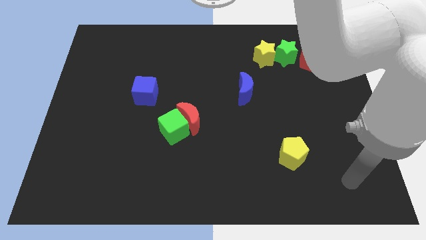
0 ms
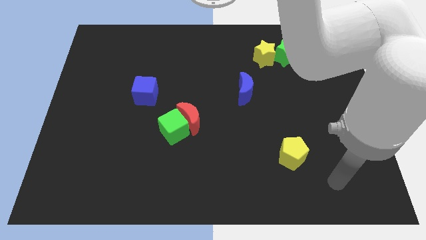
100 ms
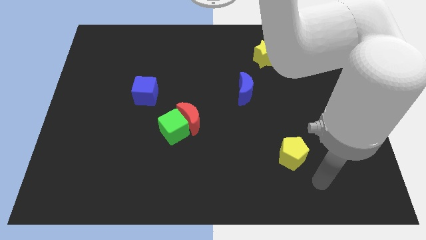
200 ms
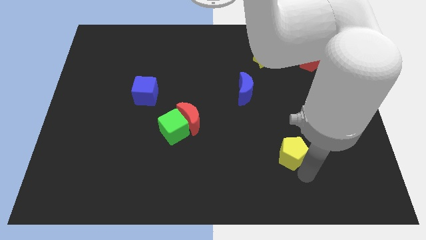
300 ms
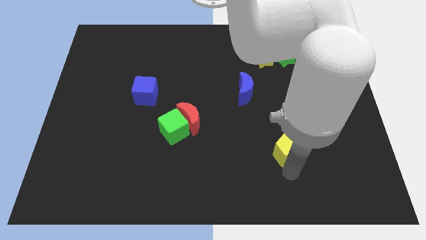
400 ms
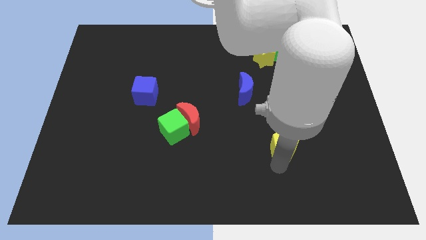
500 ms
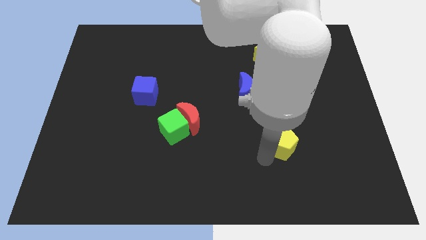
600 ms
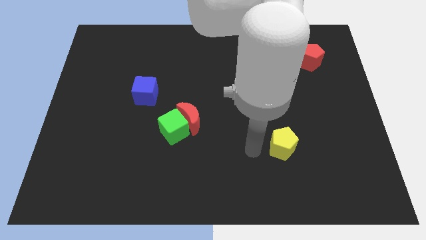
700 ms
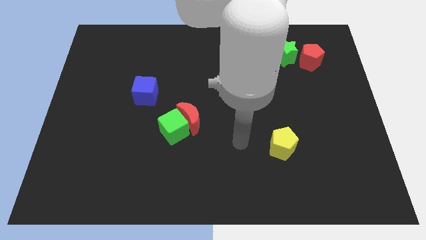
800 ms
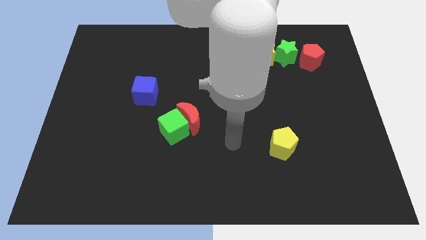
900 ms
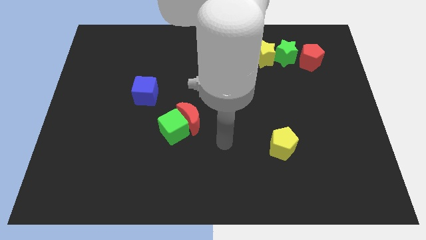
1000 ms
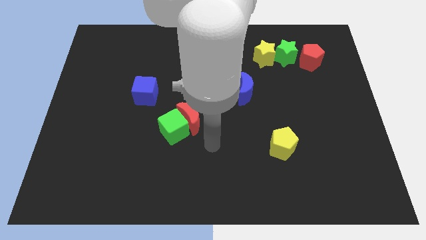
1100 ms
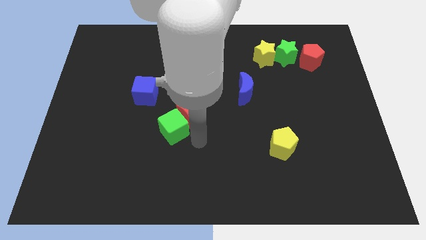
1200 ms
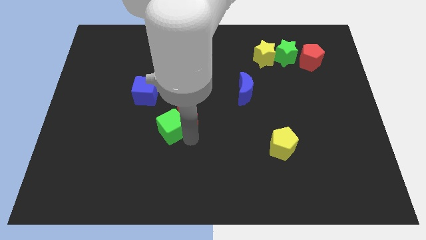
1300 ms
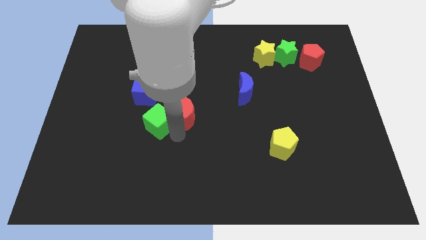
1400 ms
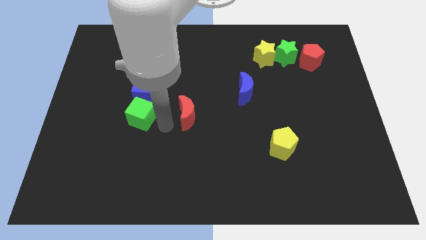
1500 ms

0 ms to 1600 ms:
separate the red moon from the green cube

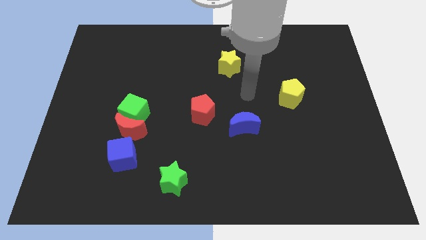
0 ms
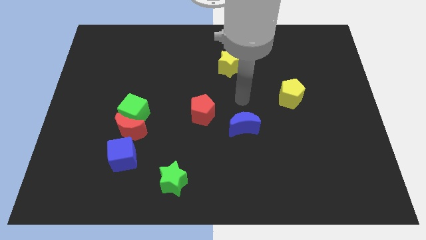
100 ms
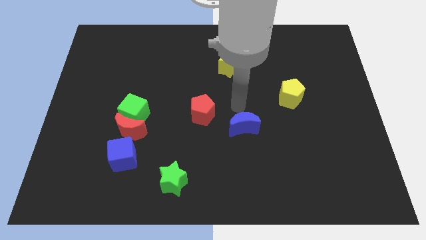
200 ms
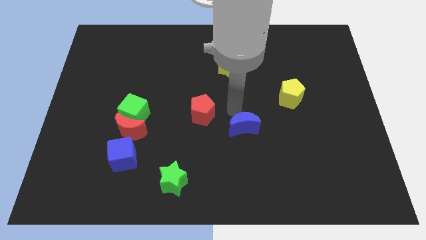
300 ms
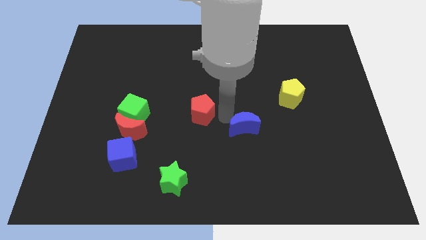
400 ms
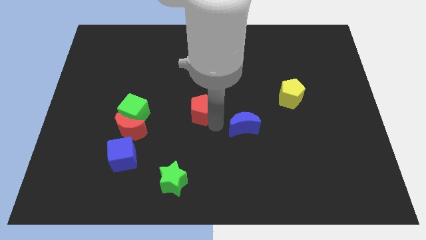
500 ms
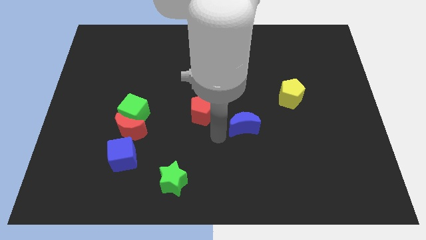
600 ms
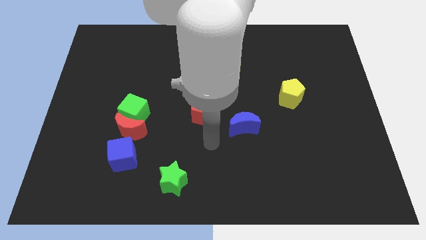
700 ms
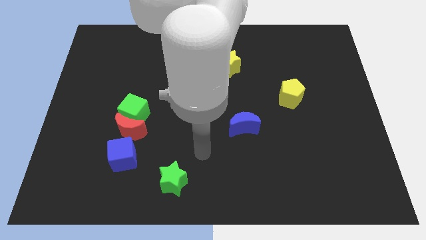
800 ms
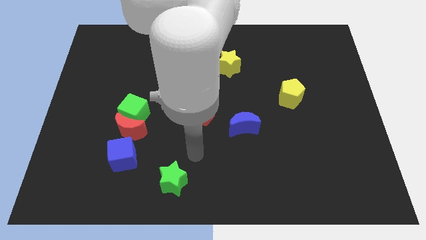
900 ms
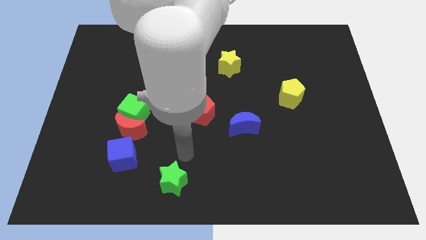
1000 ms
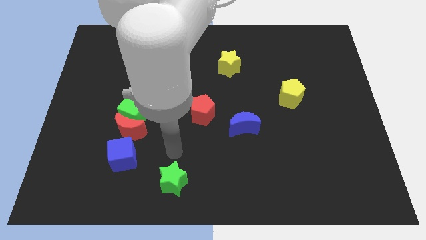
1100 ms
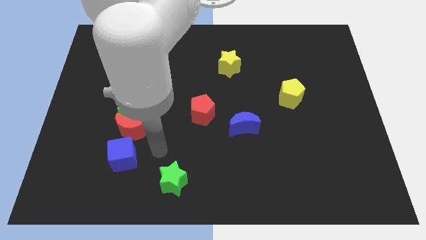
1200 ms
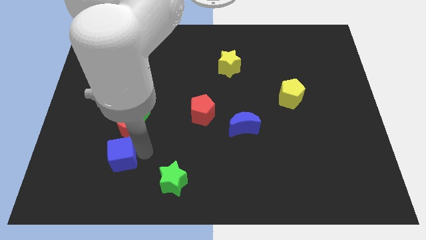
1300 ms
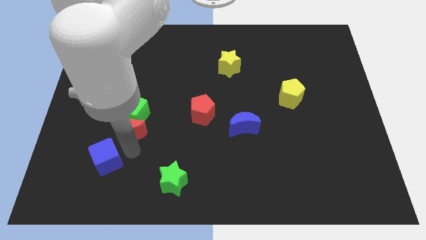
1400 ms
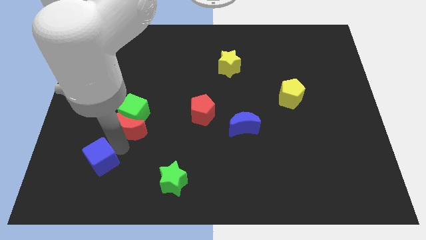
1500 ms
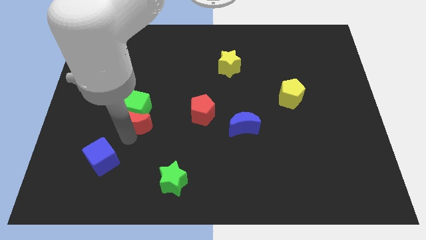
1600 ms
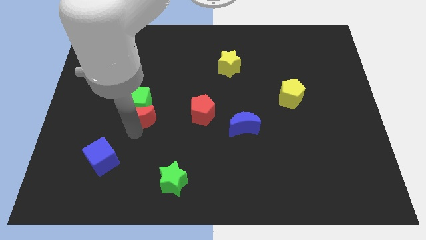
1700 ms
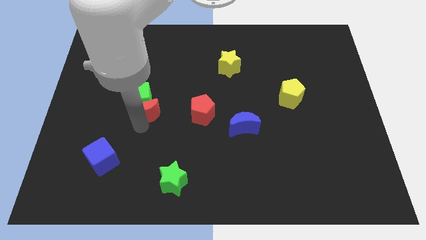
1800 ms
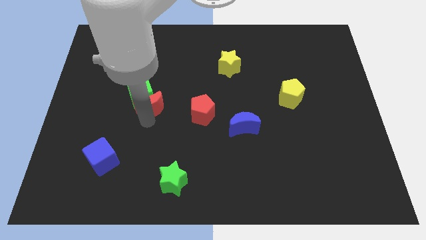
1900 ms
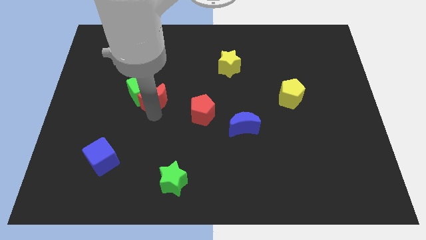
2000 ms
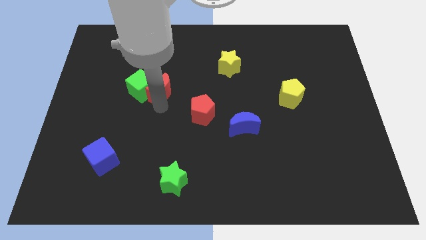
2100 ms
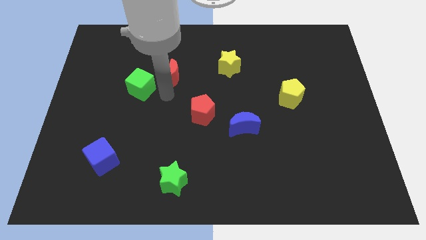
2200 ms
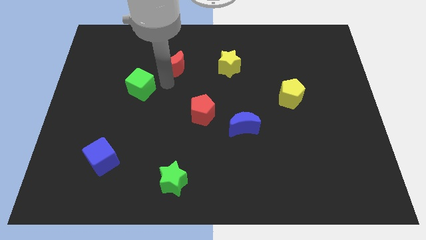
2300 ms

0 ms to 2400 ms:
pull the green cube apart from the red moon

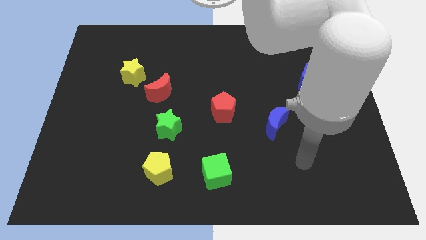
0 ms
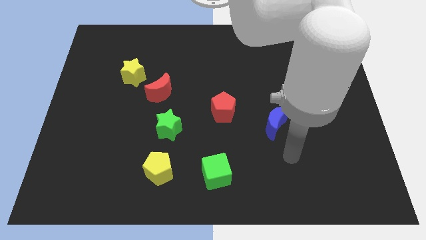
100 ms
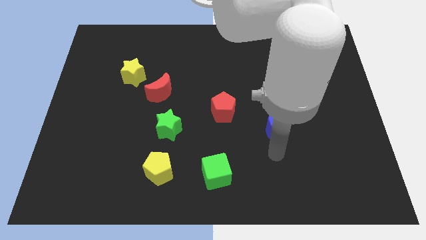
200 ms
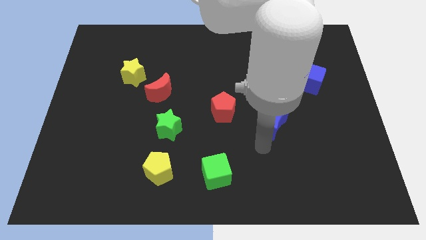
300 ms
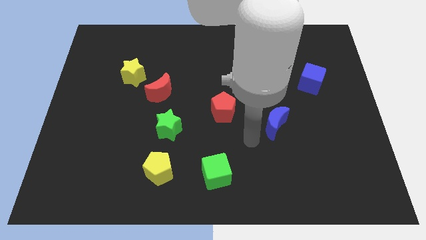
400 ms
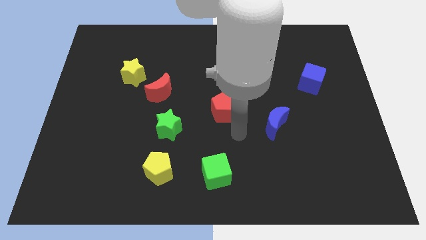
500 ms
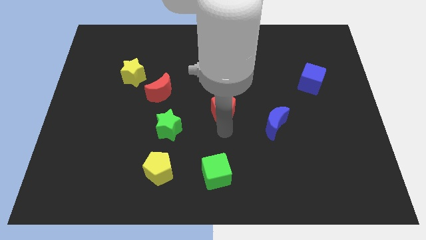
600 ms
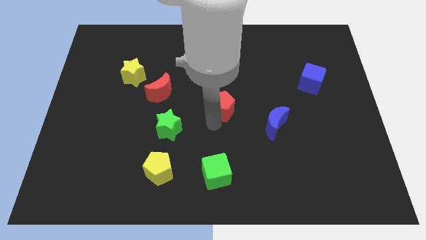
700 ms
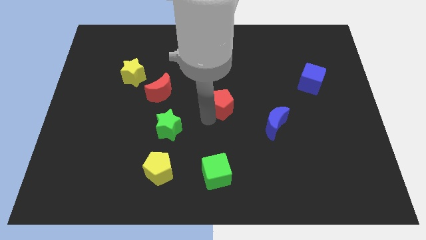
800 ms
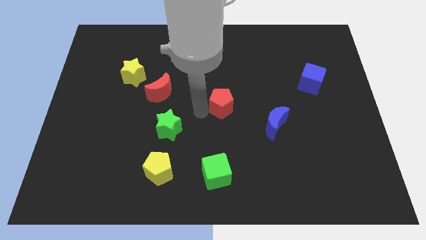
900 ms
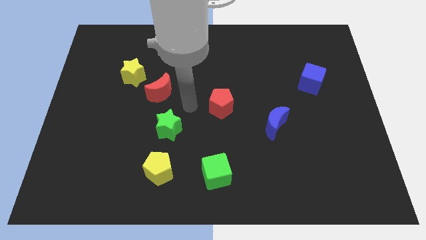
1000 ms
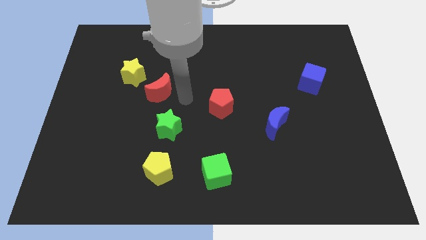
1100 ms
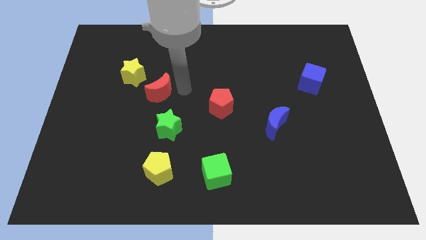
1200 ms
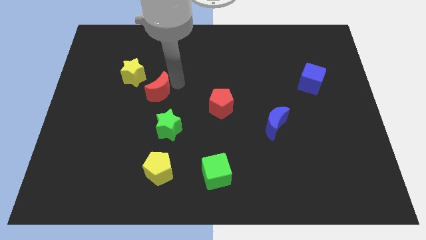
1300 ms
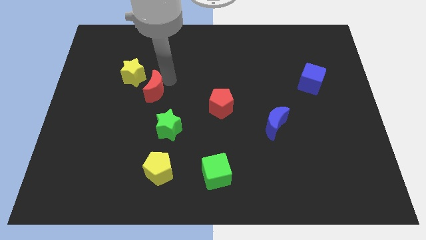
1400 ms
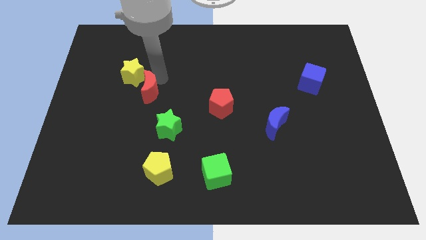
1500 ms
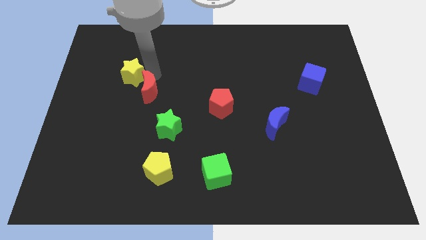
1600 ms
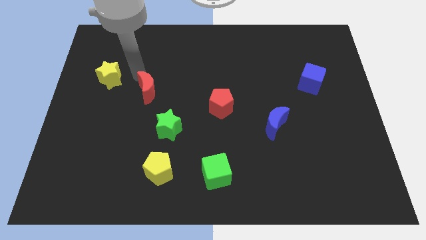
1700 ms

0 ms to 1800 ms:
separate the red moon from the yellow star

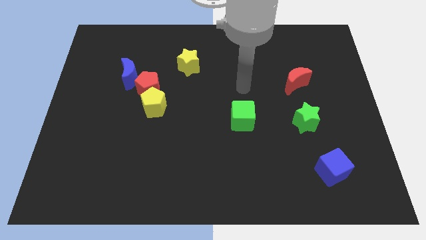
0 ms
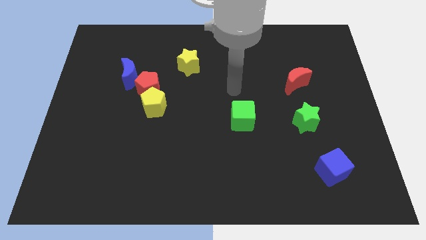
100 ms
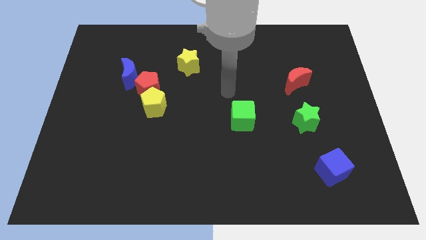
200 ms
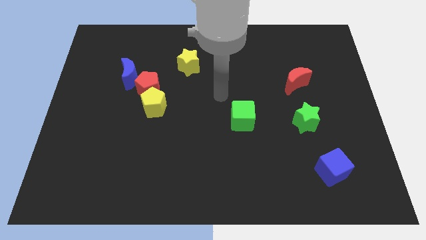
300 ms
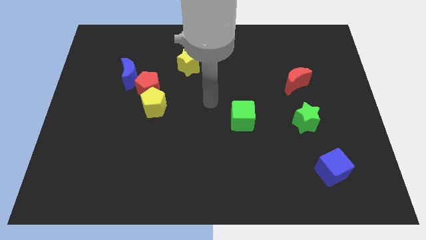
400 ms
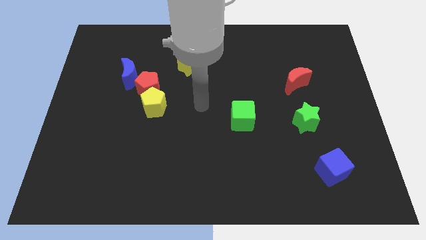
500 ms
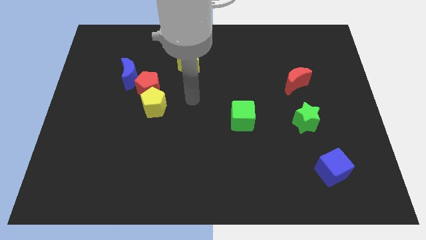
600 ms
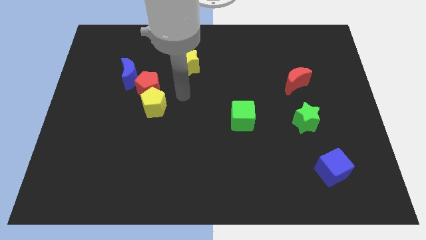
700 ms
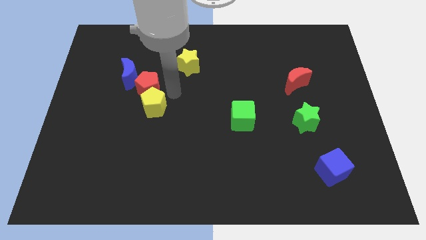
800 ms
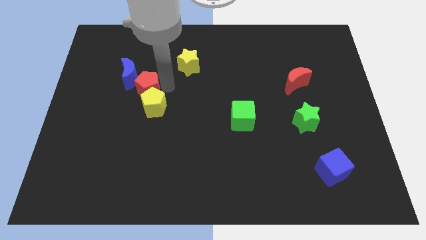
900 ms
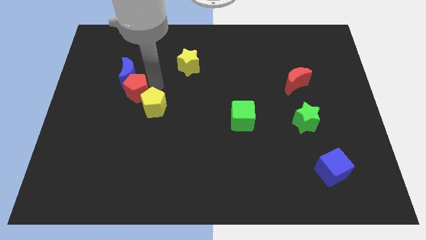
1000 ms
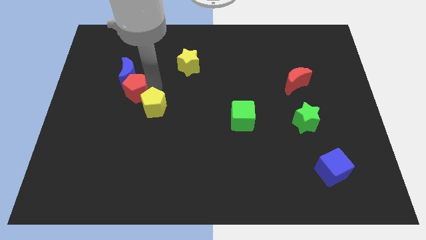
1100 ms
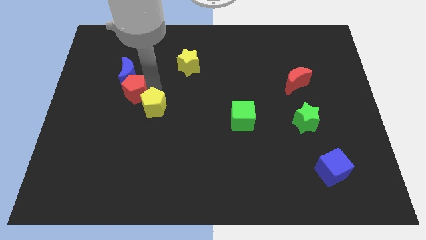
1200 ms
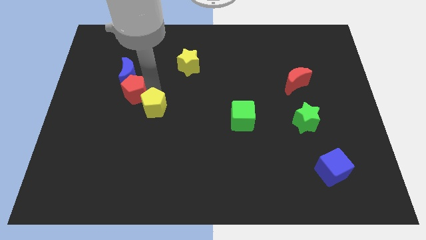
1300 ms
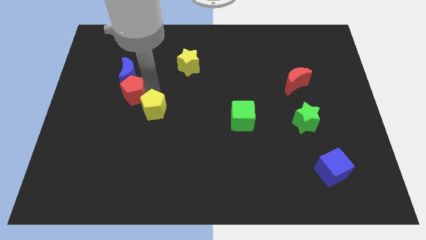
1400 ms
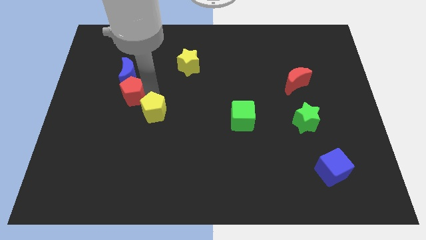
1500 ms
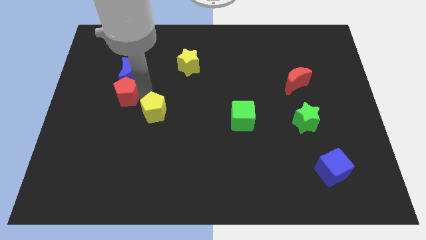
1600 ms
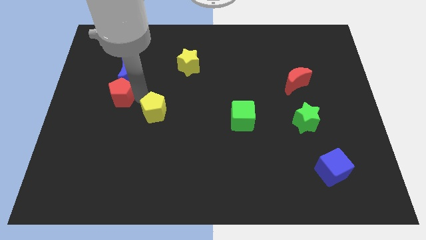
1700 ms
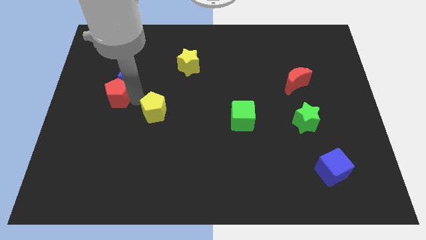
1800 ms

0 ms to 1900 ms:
separate the yellow pentagon from the red pentagon

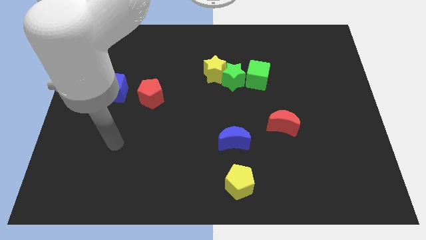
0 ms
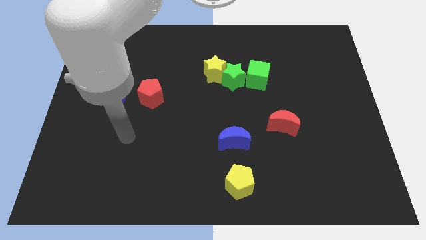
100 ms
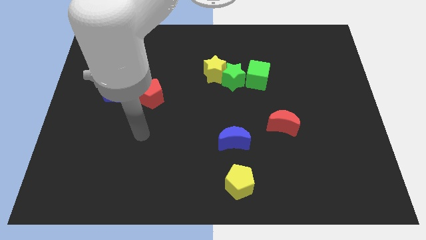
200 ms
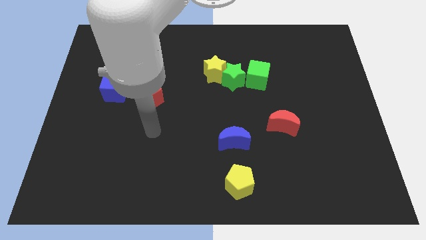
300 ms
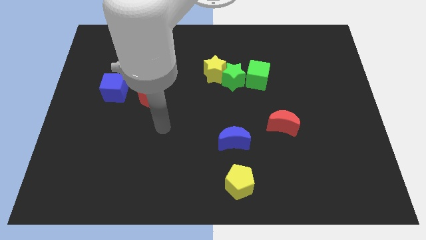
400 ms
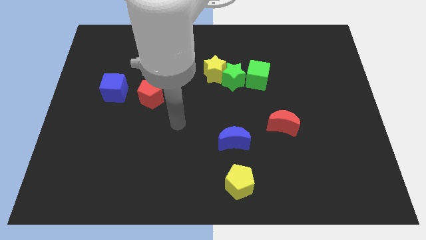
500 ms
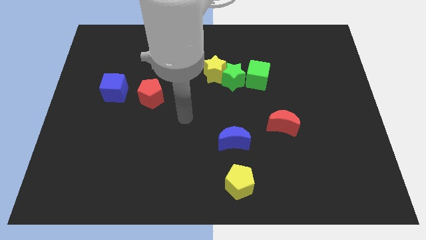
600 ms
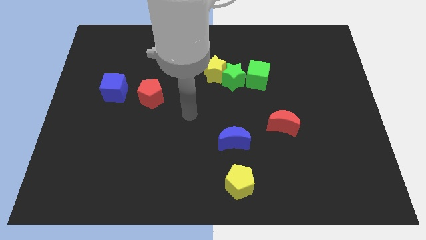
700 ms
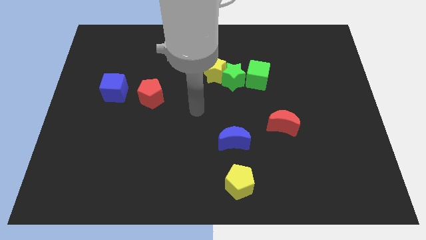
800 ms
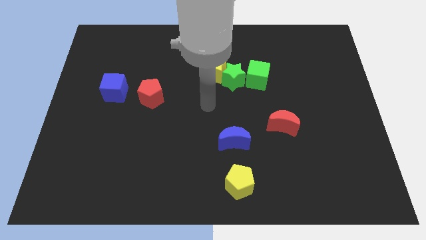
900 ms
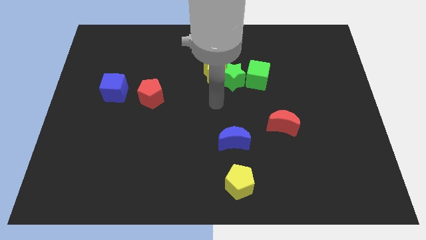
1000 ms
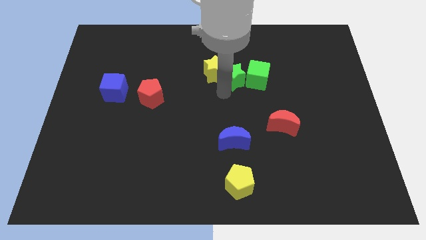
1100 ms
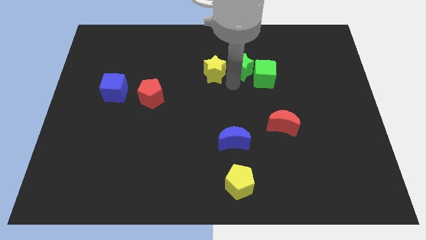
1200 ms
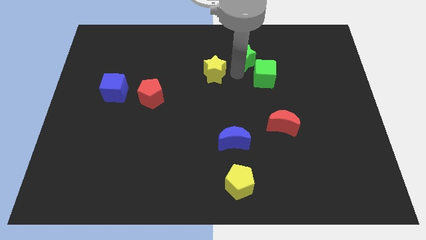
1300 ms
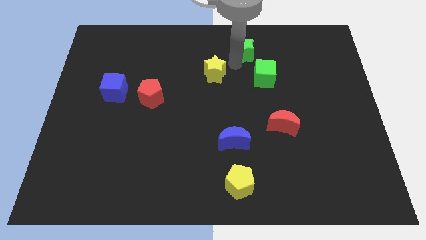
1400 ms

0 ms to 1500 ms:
separate the yellow star from the green star

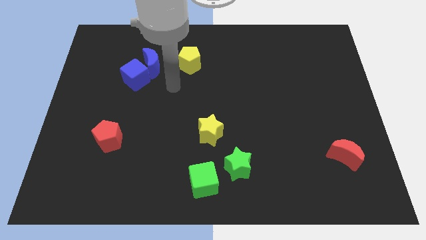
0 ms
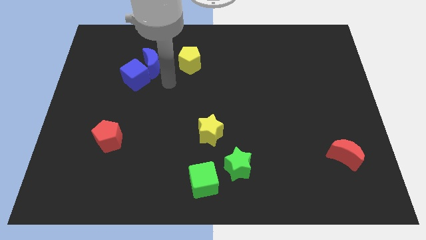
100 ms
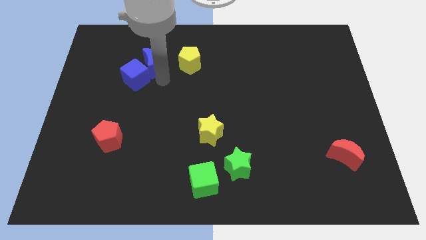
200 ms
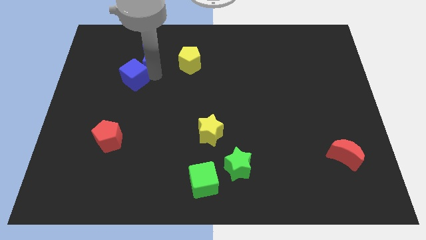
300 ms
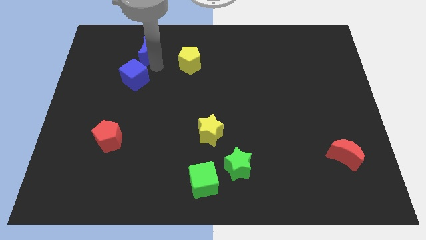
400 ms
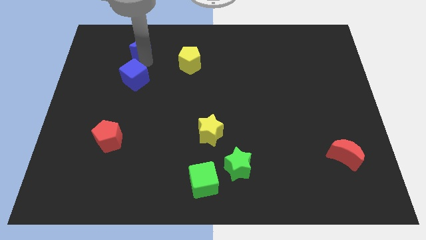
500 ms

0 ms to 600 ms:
pull the blue cube apart from the blue moon
